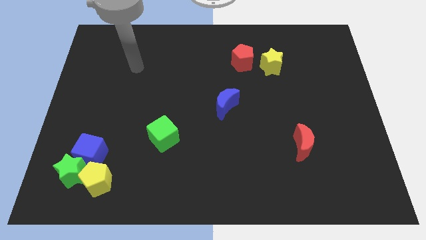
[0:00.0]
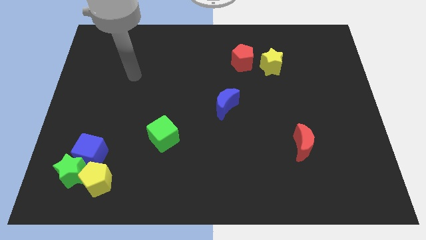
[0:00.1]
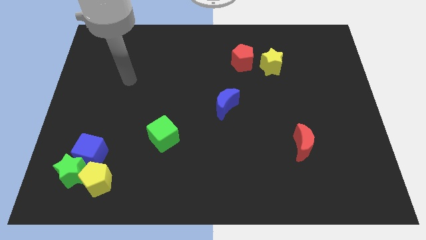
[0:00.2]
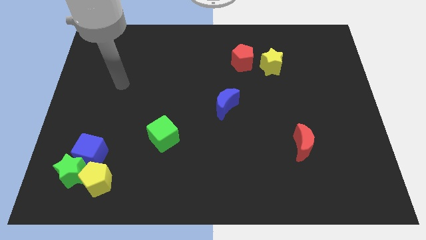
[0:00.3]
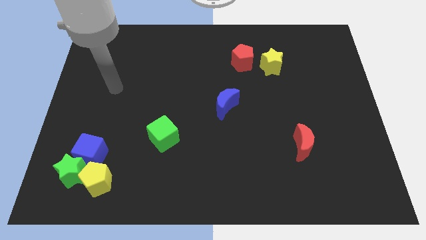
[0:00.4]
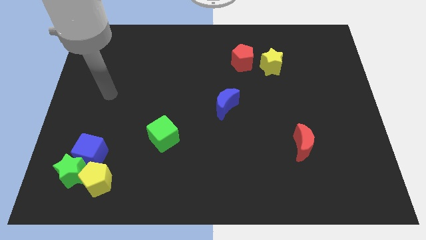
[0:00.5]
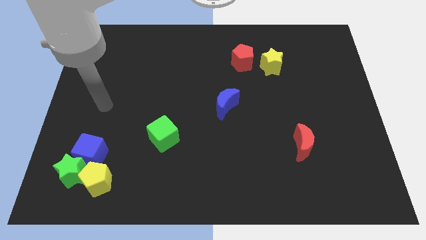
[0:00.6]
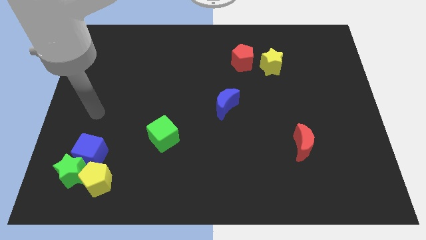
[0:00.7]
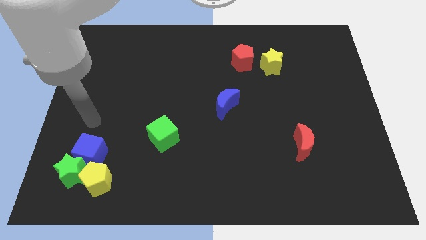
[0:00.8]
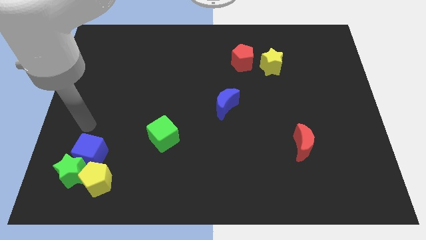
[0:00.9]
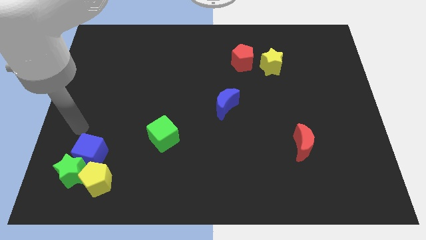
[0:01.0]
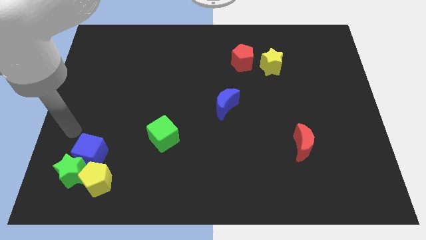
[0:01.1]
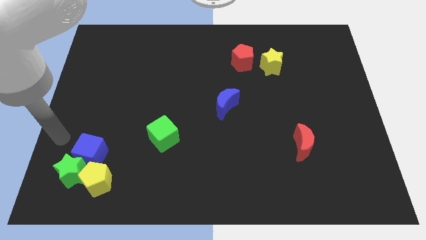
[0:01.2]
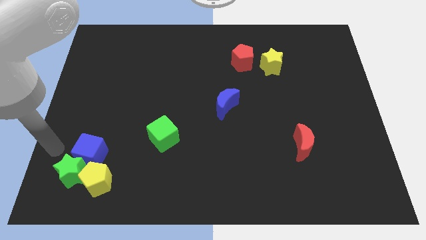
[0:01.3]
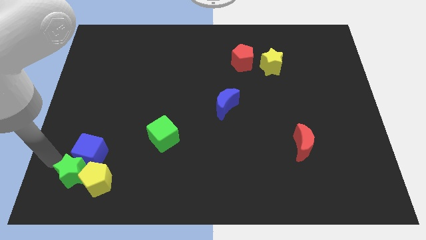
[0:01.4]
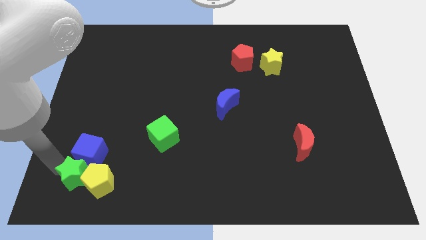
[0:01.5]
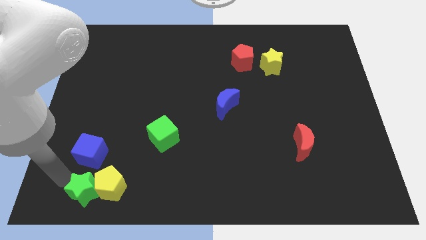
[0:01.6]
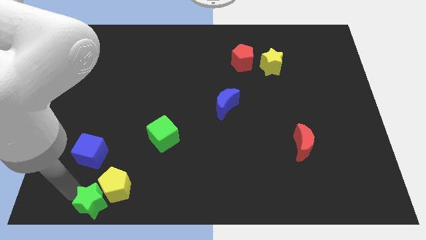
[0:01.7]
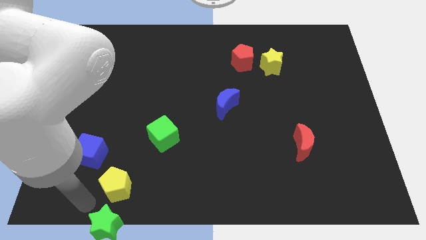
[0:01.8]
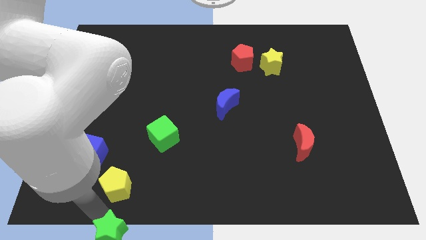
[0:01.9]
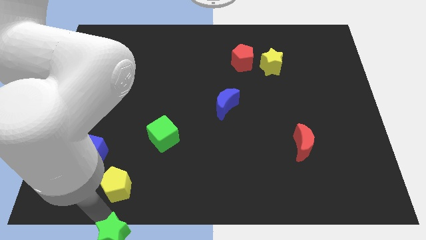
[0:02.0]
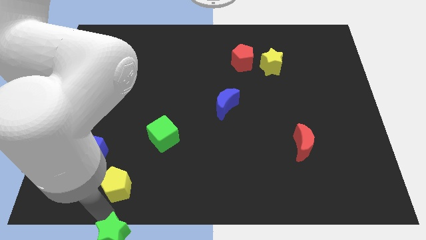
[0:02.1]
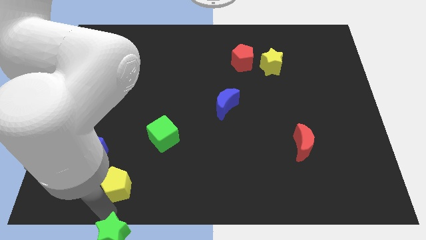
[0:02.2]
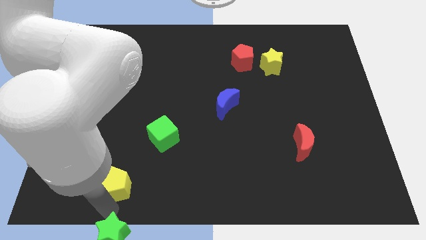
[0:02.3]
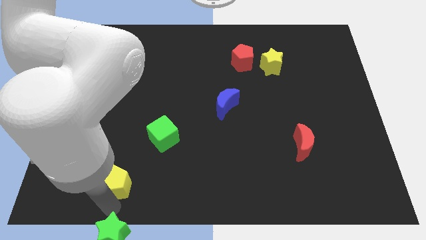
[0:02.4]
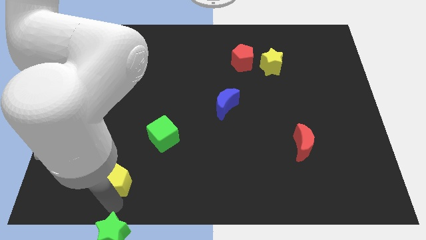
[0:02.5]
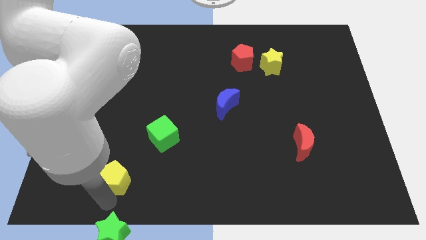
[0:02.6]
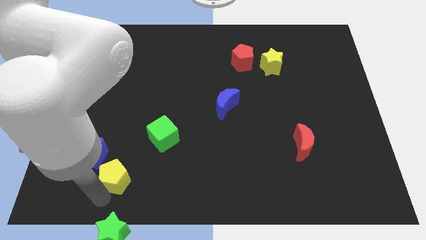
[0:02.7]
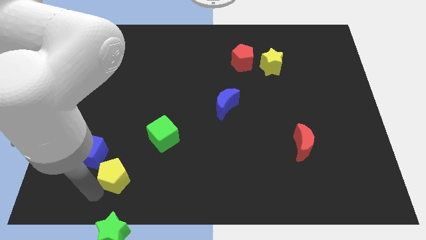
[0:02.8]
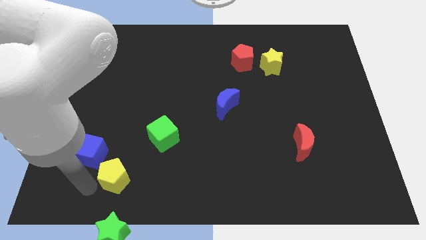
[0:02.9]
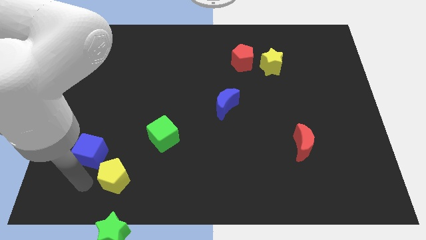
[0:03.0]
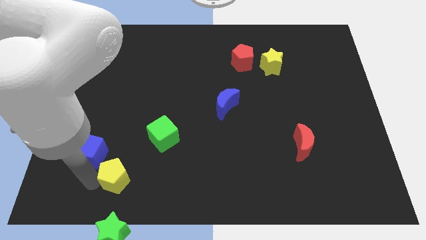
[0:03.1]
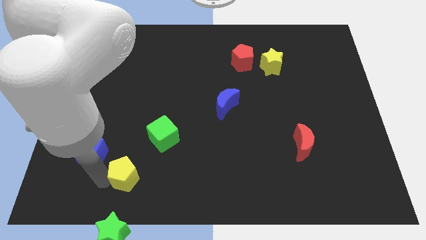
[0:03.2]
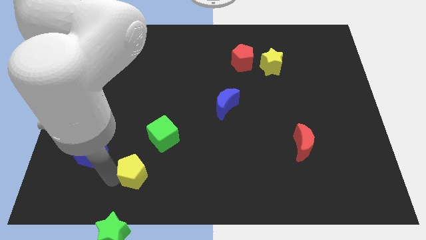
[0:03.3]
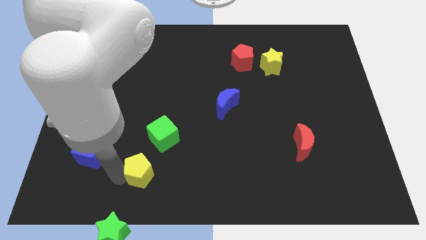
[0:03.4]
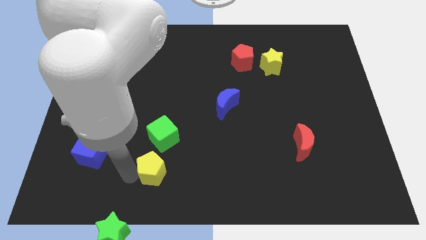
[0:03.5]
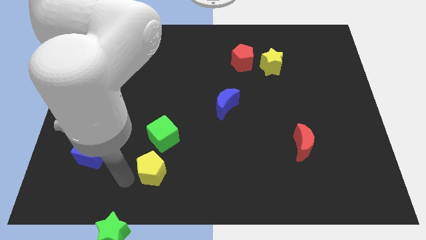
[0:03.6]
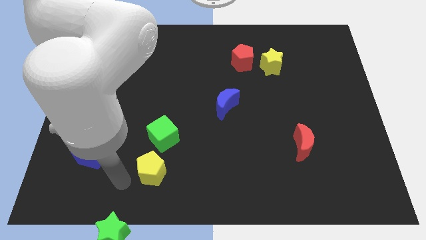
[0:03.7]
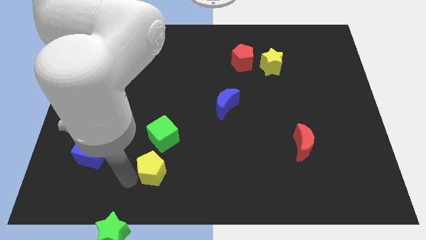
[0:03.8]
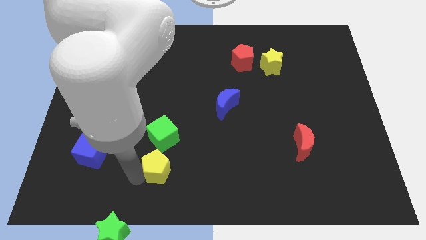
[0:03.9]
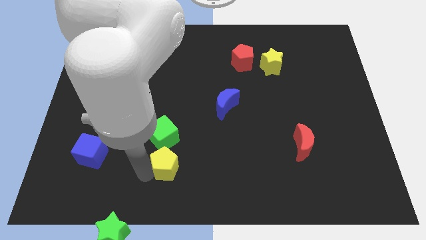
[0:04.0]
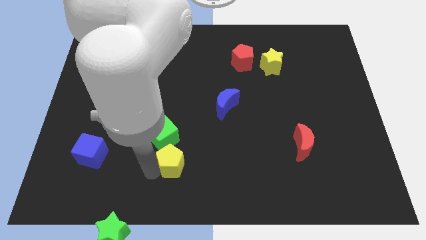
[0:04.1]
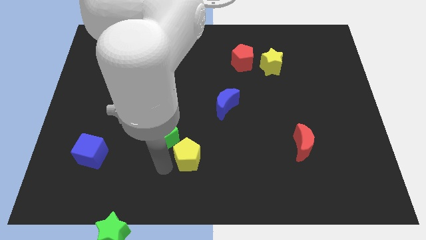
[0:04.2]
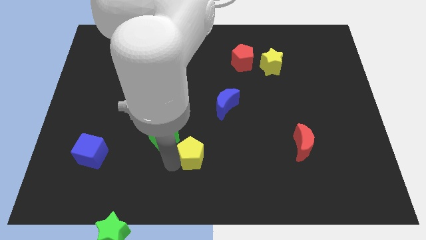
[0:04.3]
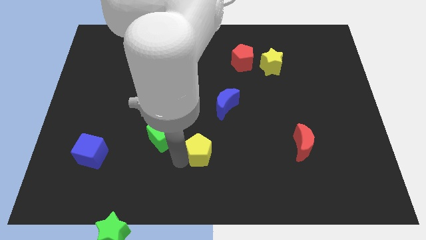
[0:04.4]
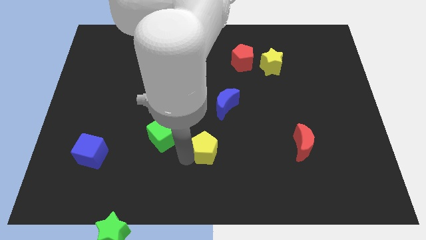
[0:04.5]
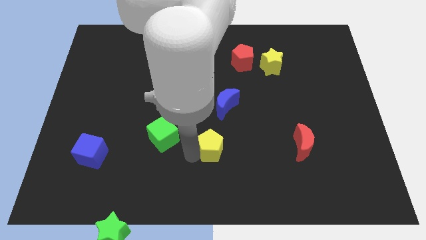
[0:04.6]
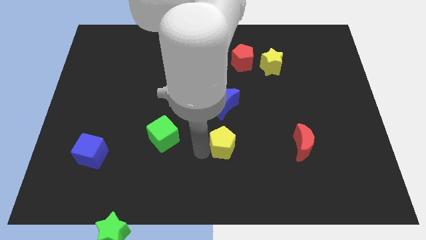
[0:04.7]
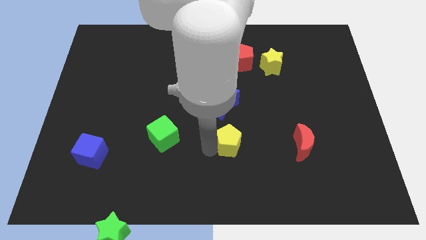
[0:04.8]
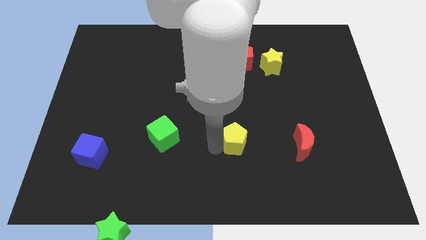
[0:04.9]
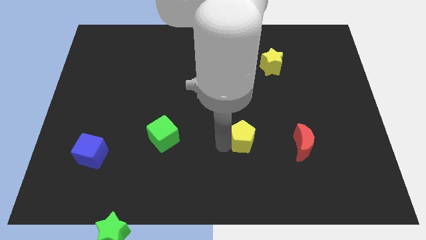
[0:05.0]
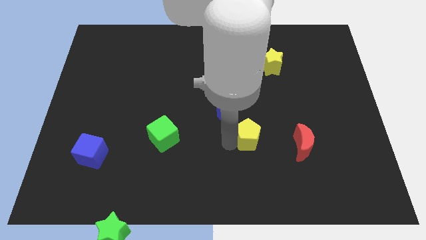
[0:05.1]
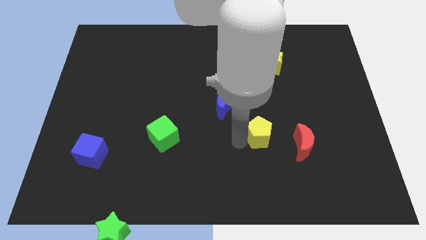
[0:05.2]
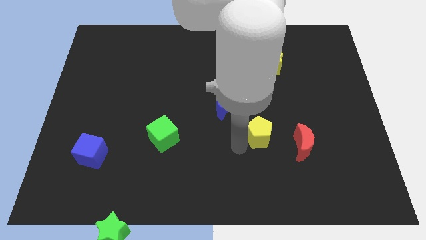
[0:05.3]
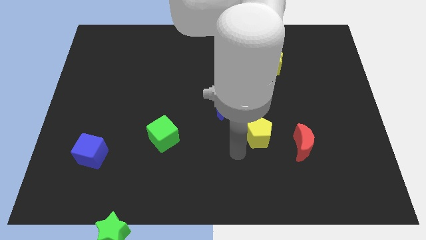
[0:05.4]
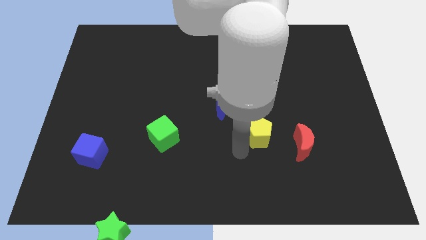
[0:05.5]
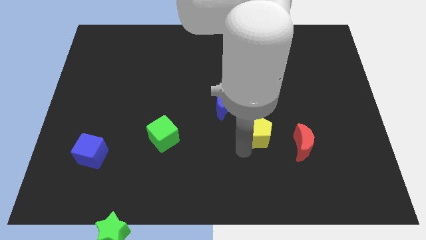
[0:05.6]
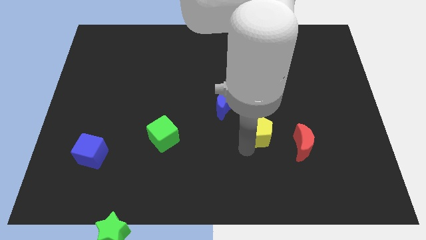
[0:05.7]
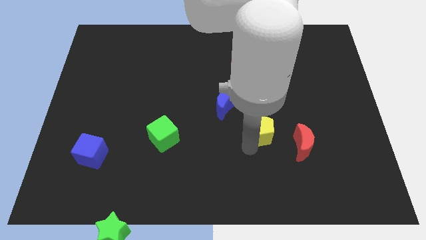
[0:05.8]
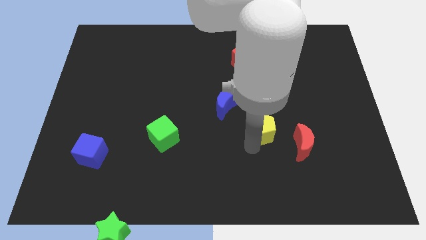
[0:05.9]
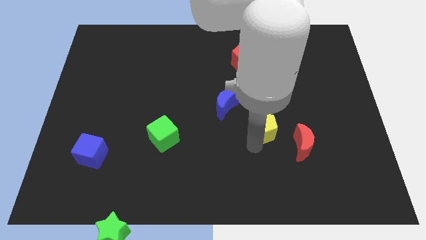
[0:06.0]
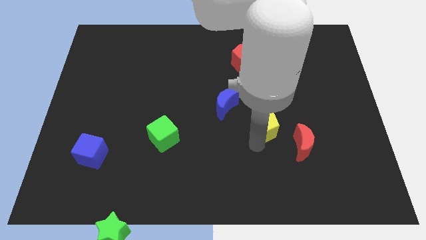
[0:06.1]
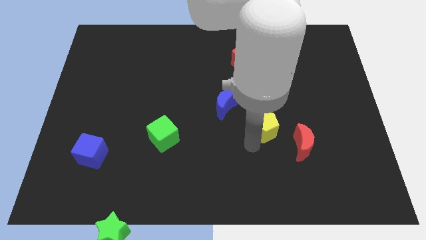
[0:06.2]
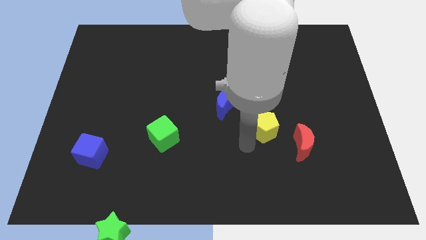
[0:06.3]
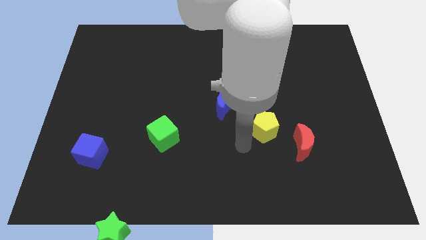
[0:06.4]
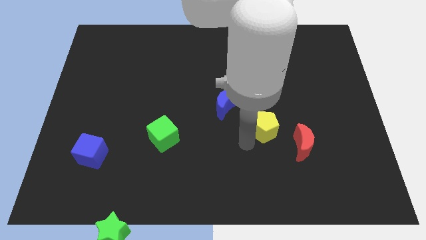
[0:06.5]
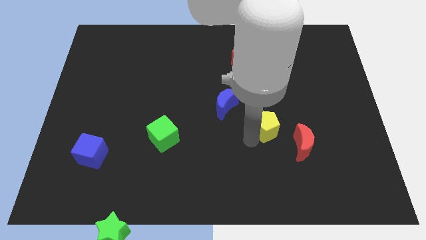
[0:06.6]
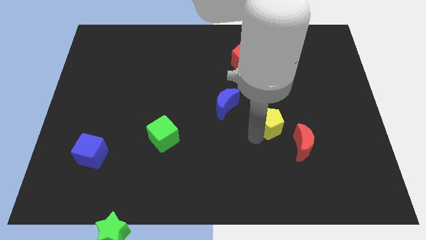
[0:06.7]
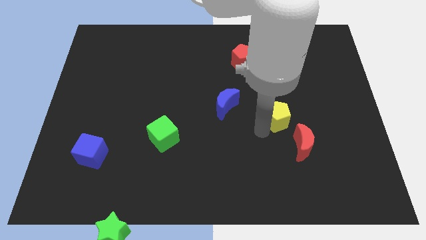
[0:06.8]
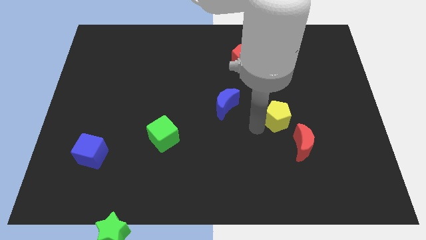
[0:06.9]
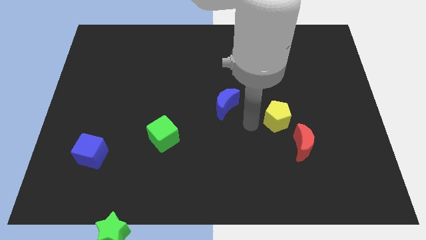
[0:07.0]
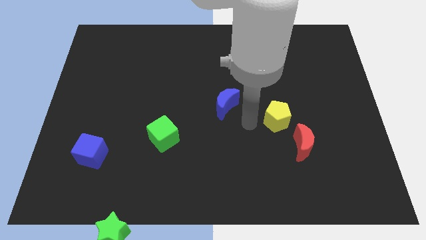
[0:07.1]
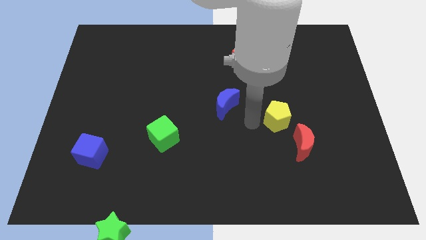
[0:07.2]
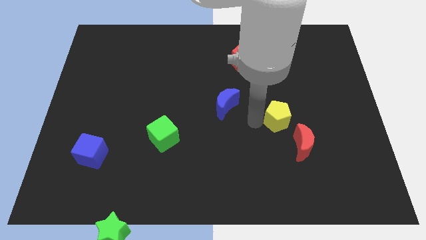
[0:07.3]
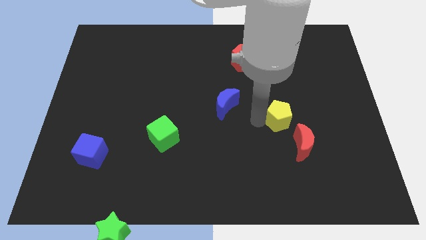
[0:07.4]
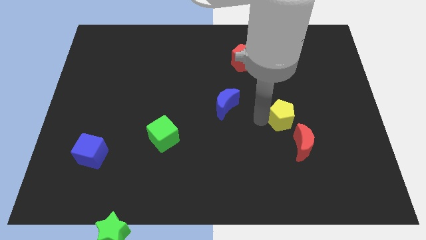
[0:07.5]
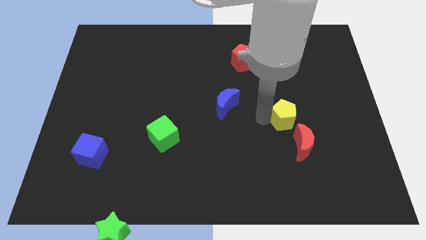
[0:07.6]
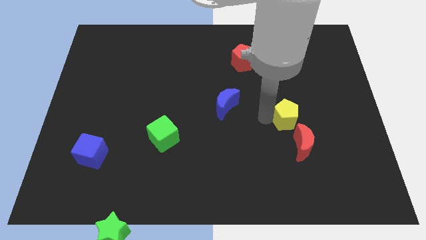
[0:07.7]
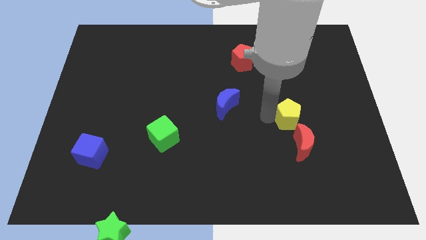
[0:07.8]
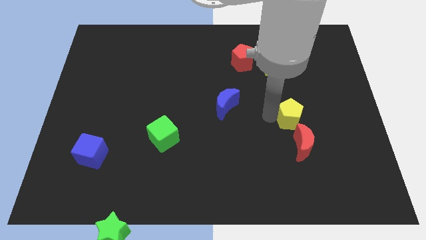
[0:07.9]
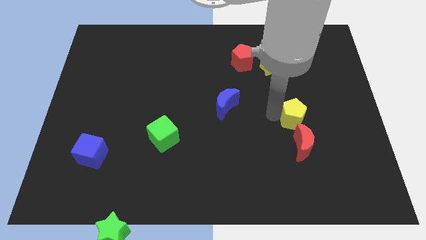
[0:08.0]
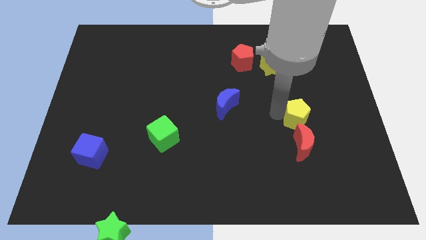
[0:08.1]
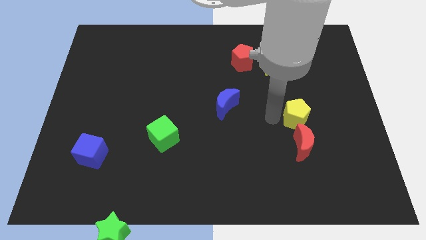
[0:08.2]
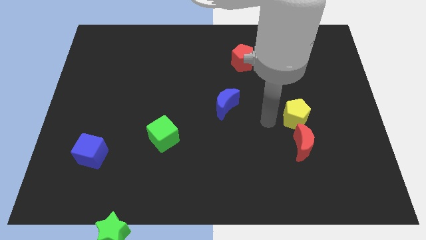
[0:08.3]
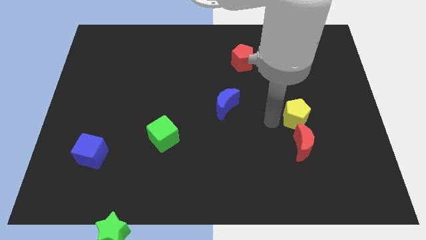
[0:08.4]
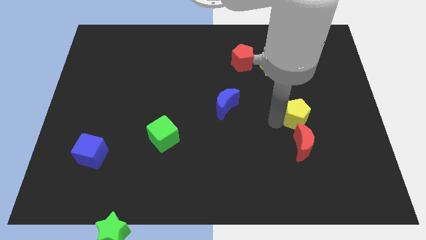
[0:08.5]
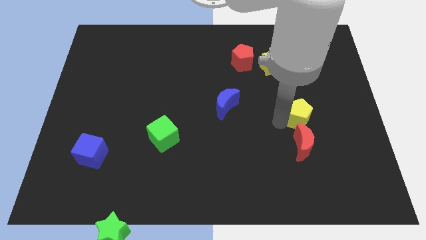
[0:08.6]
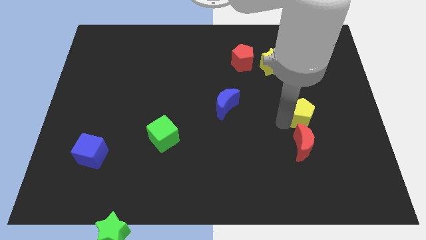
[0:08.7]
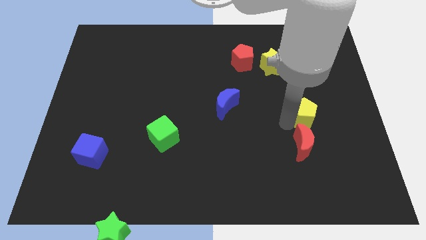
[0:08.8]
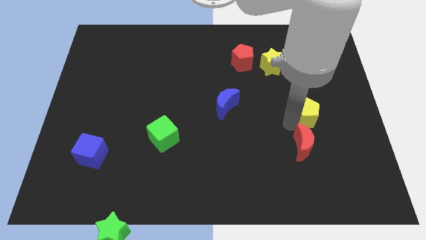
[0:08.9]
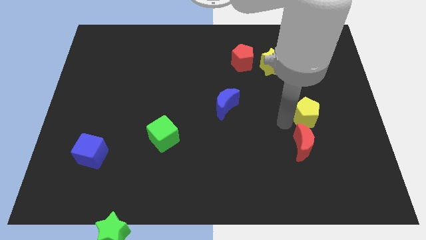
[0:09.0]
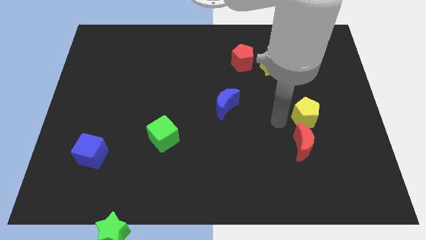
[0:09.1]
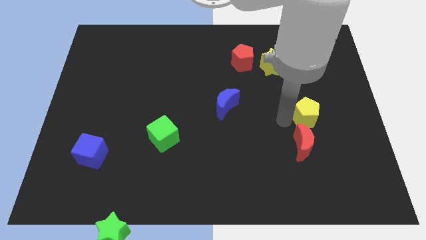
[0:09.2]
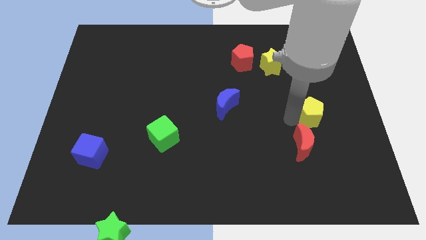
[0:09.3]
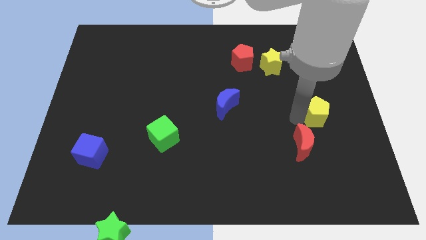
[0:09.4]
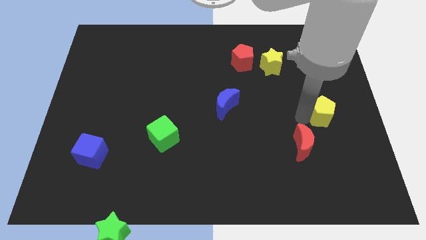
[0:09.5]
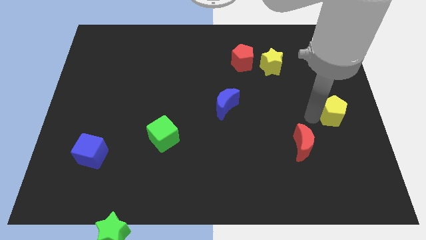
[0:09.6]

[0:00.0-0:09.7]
push the yellow pentagon to the right side
